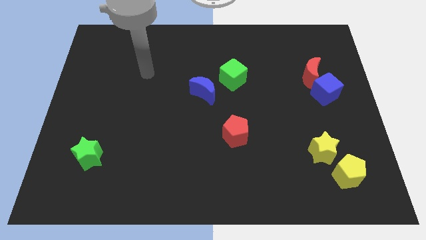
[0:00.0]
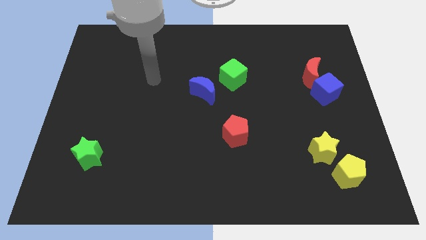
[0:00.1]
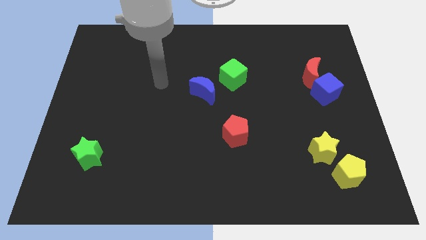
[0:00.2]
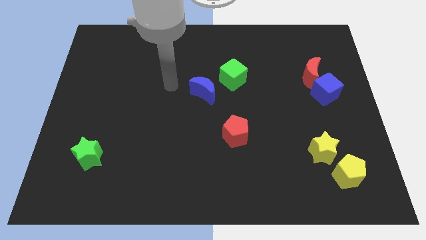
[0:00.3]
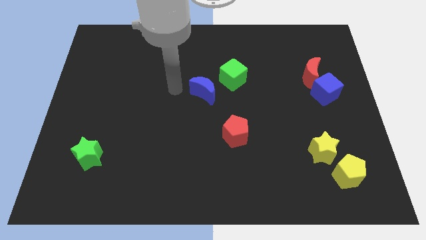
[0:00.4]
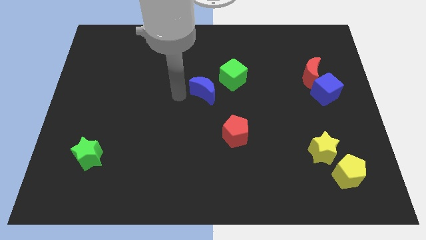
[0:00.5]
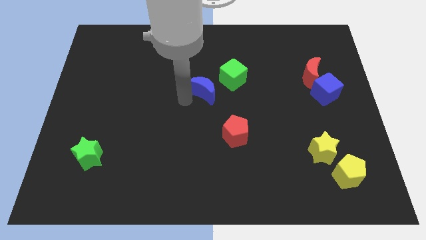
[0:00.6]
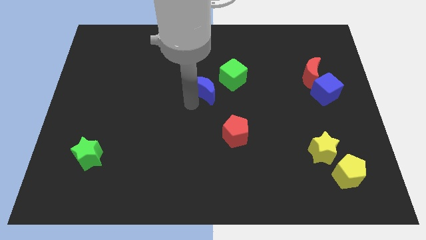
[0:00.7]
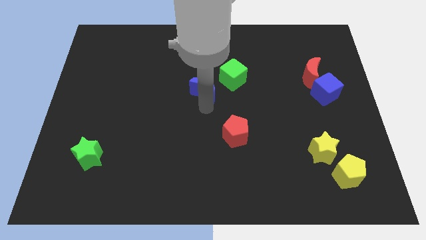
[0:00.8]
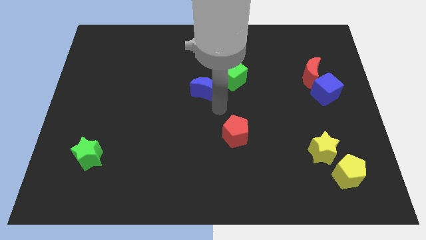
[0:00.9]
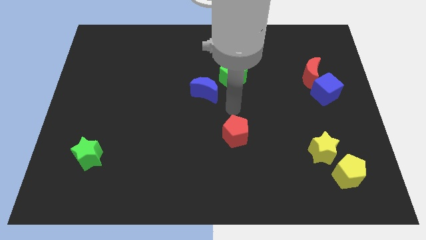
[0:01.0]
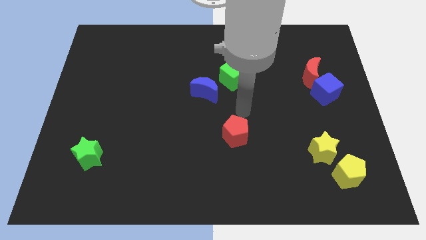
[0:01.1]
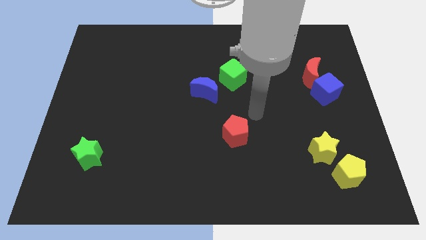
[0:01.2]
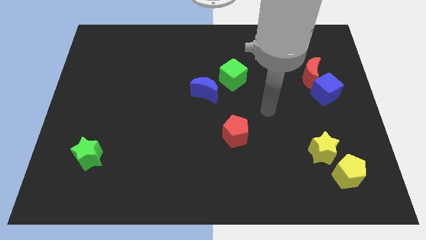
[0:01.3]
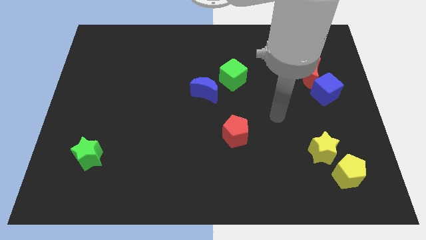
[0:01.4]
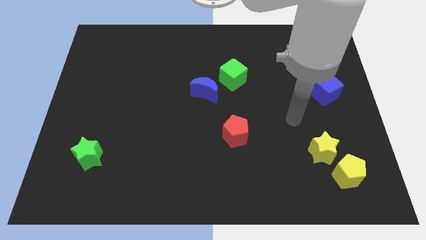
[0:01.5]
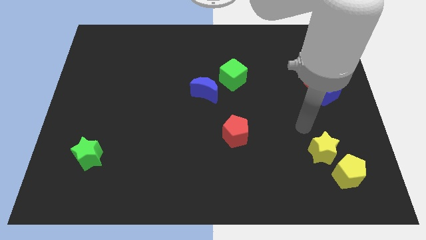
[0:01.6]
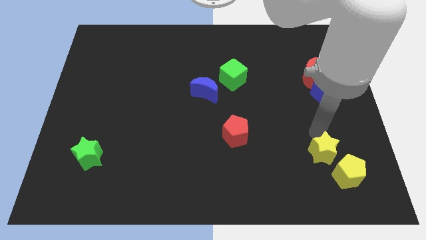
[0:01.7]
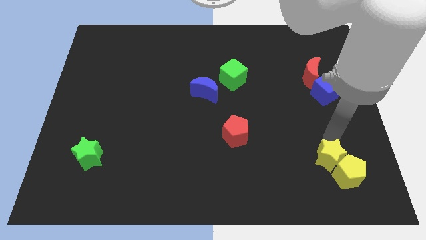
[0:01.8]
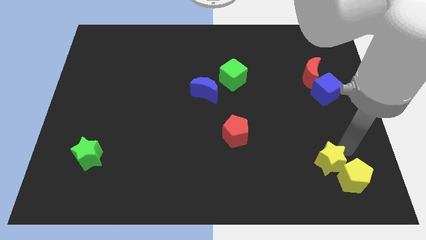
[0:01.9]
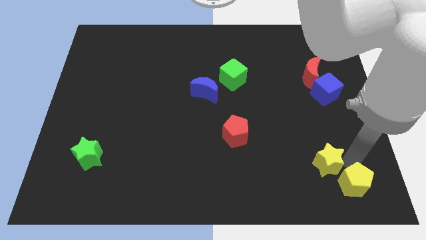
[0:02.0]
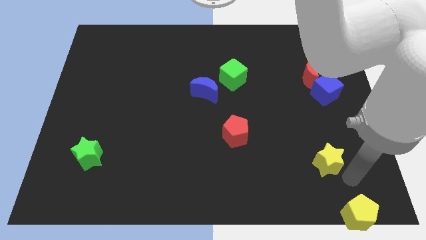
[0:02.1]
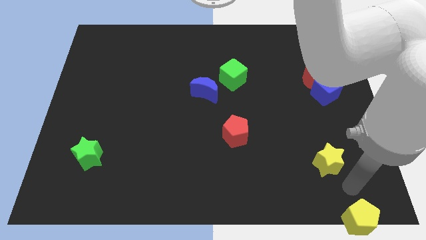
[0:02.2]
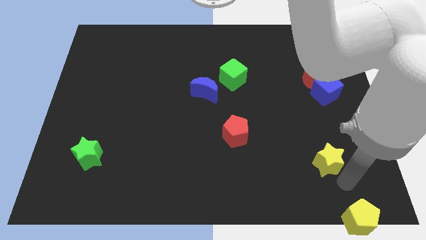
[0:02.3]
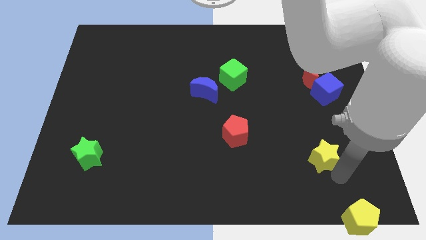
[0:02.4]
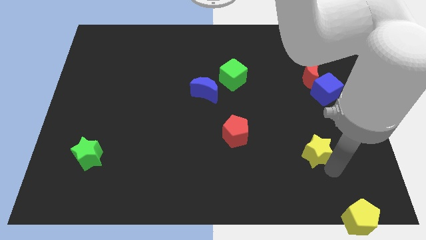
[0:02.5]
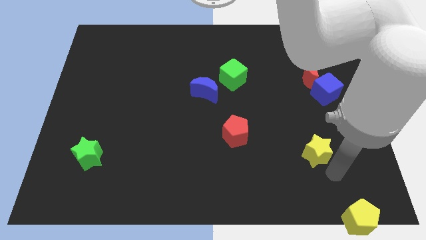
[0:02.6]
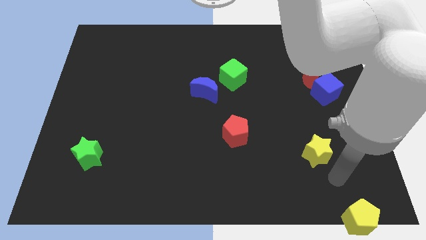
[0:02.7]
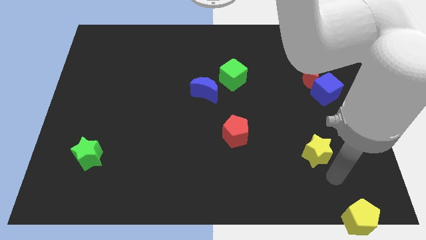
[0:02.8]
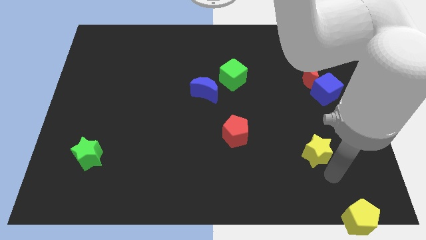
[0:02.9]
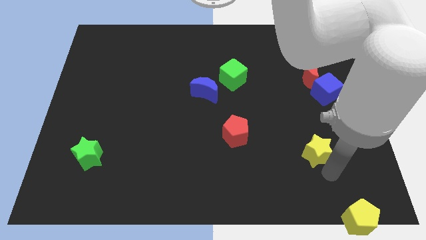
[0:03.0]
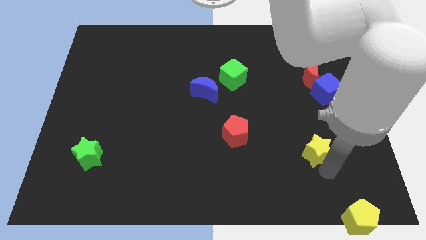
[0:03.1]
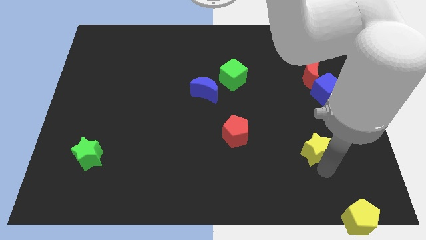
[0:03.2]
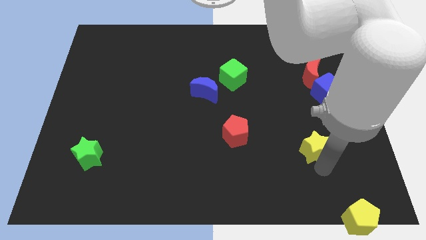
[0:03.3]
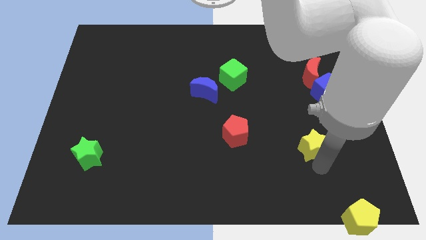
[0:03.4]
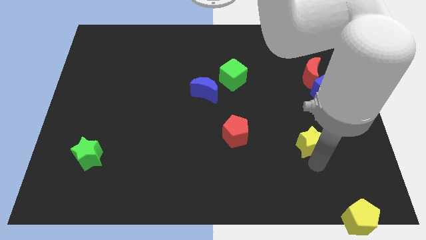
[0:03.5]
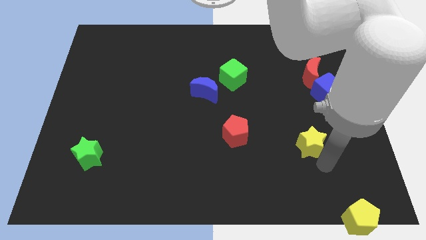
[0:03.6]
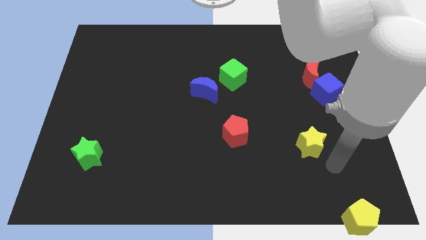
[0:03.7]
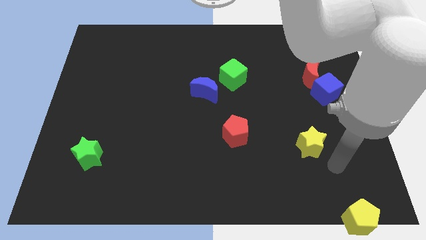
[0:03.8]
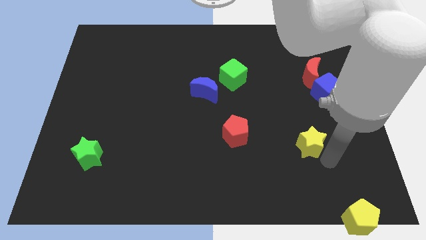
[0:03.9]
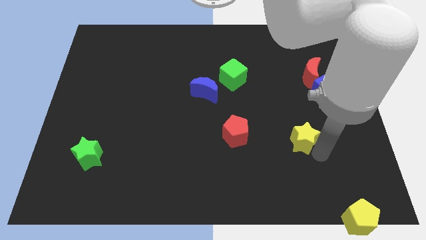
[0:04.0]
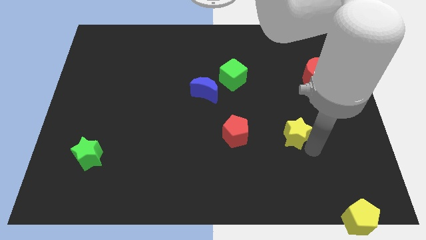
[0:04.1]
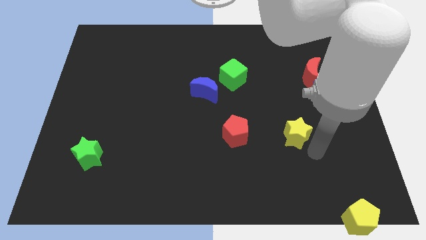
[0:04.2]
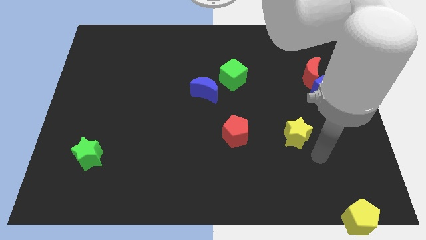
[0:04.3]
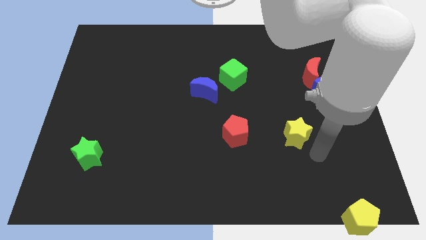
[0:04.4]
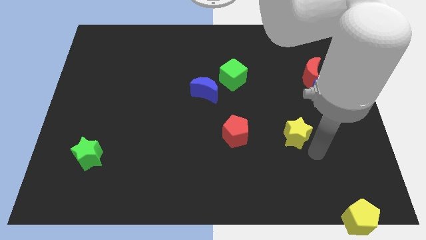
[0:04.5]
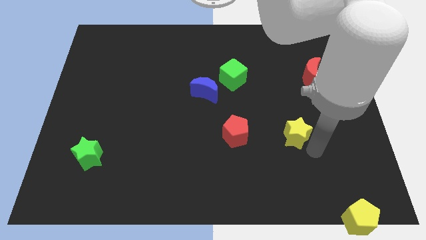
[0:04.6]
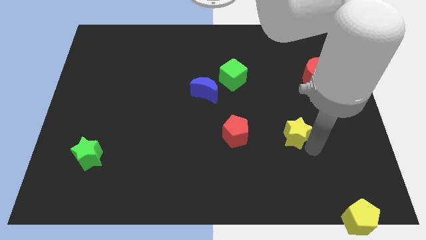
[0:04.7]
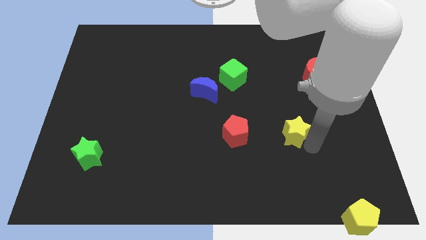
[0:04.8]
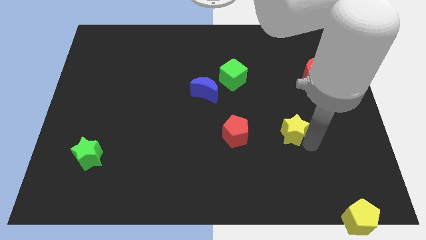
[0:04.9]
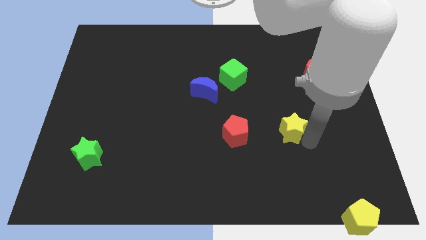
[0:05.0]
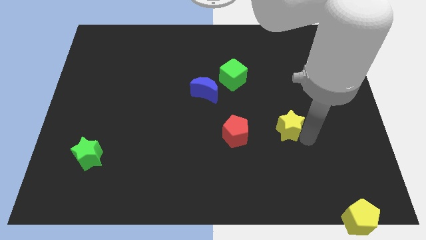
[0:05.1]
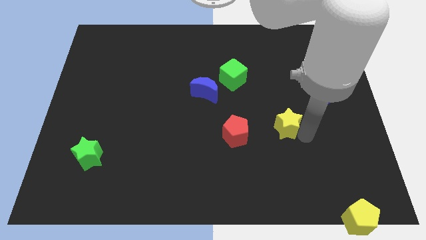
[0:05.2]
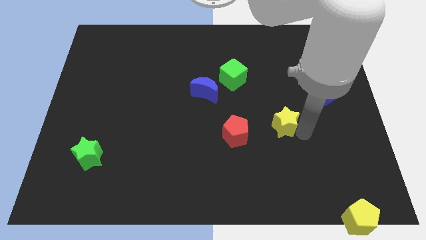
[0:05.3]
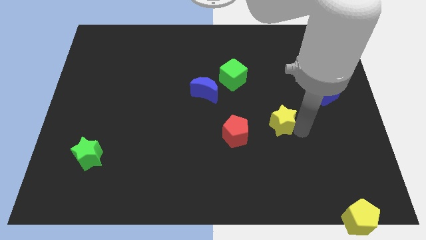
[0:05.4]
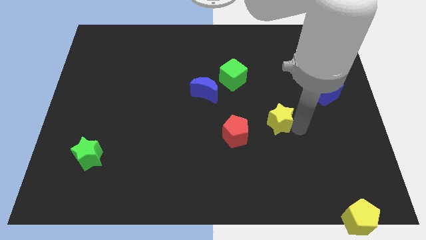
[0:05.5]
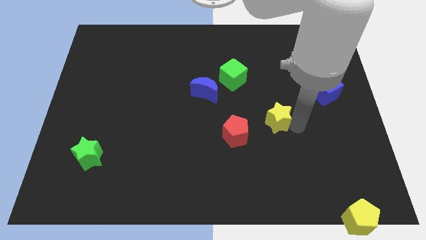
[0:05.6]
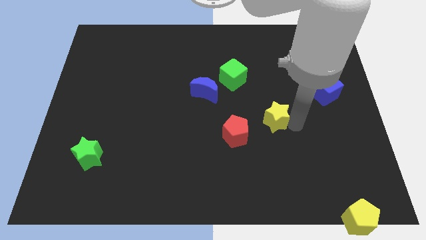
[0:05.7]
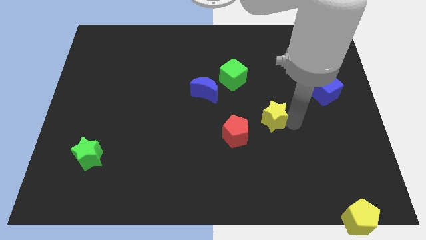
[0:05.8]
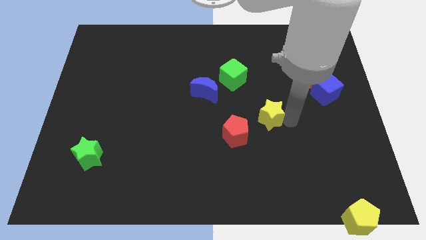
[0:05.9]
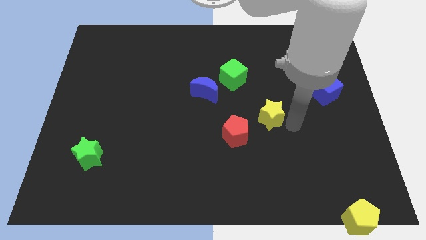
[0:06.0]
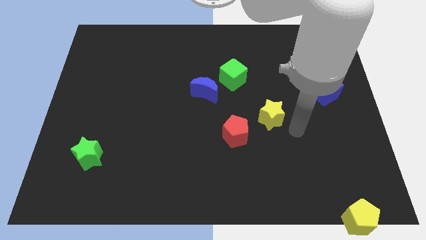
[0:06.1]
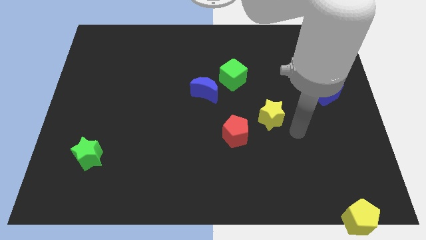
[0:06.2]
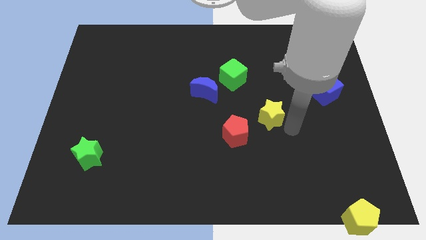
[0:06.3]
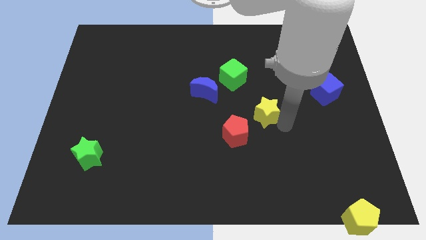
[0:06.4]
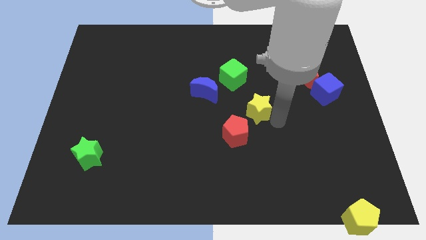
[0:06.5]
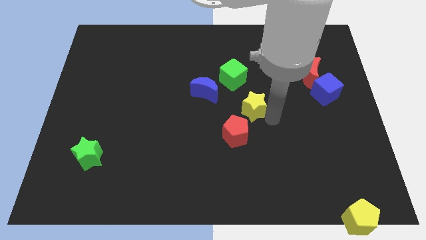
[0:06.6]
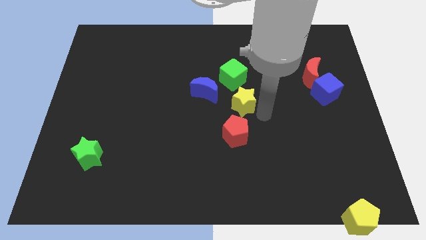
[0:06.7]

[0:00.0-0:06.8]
move the yellow star up and then to the left

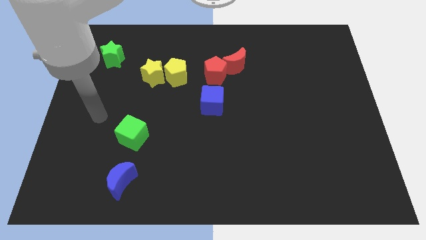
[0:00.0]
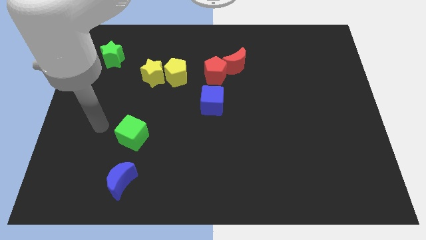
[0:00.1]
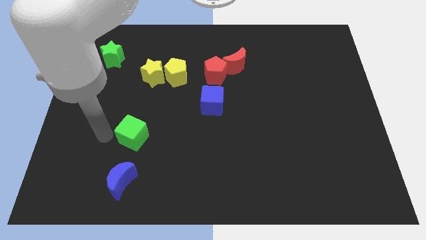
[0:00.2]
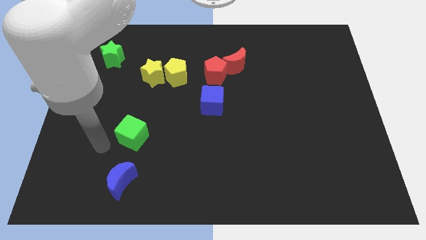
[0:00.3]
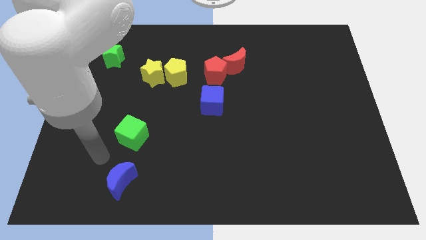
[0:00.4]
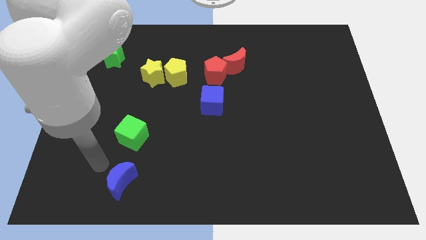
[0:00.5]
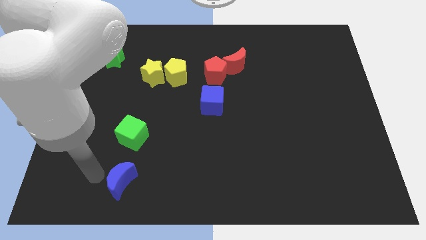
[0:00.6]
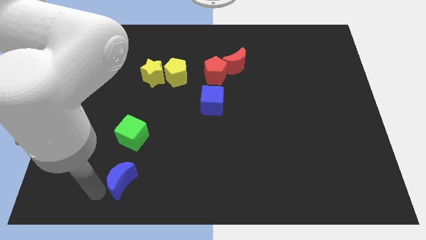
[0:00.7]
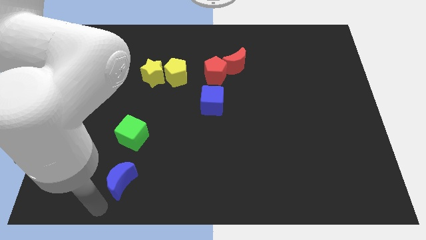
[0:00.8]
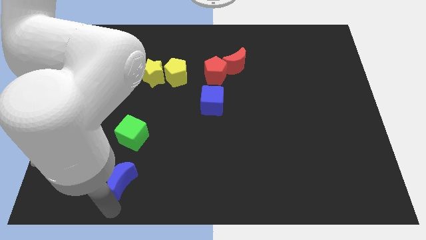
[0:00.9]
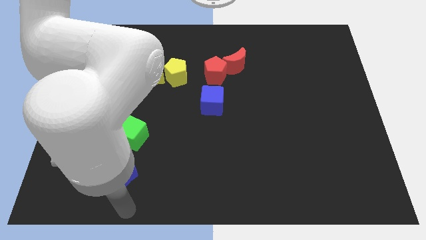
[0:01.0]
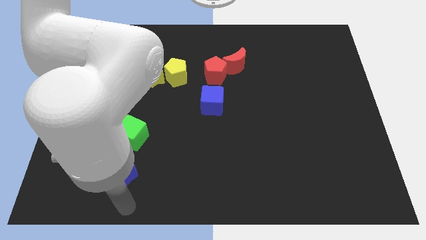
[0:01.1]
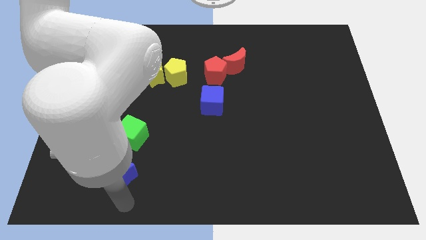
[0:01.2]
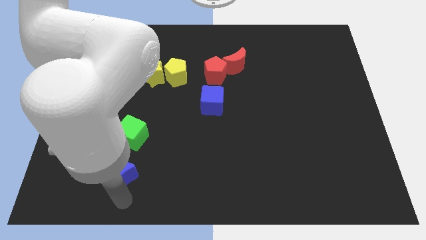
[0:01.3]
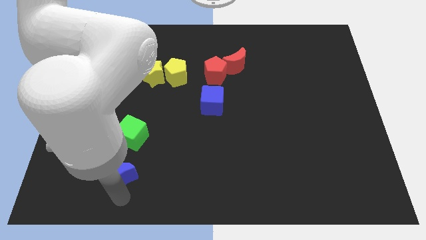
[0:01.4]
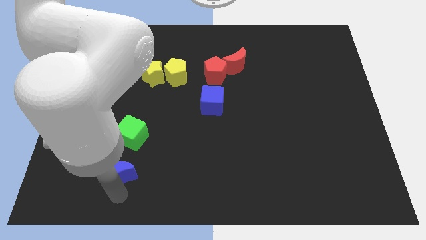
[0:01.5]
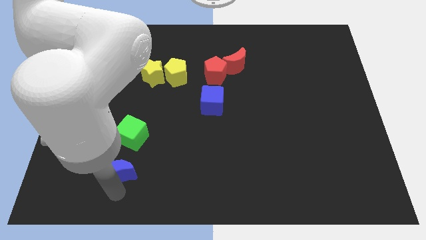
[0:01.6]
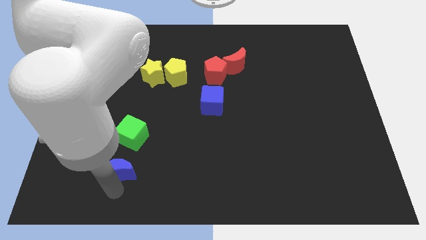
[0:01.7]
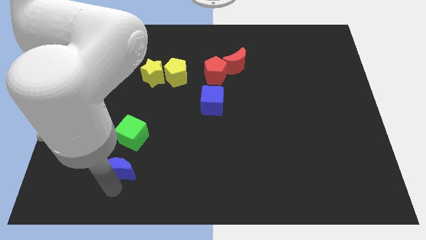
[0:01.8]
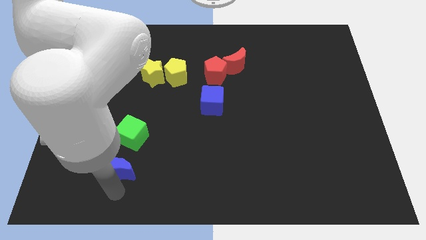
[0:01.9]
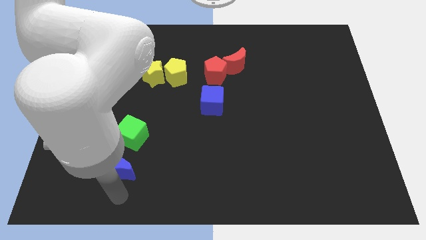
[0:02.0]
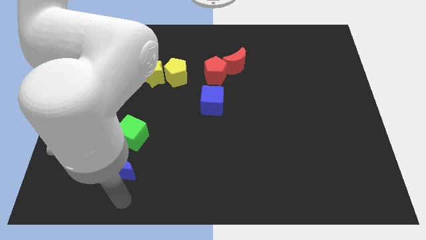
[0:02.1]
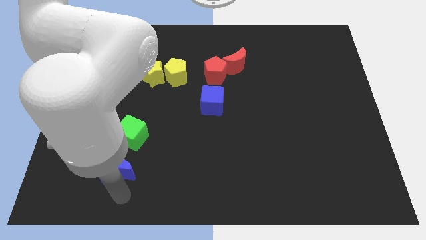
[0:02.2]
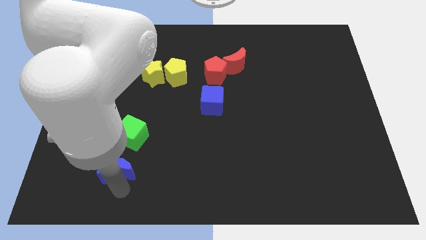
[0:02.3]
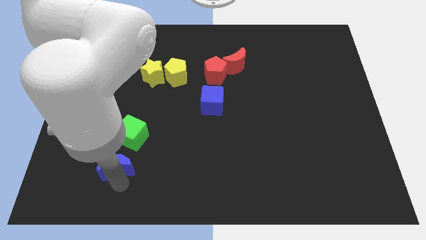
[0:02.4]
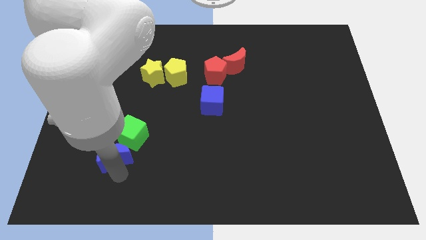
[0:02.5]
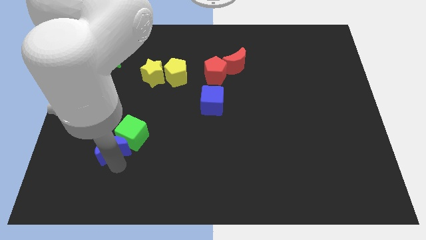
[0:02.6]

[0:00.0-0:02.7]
slightly move the blue moon up
